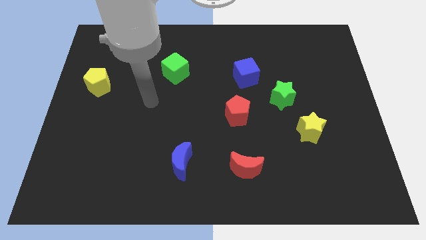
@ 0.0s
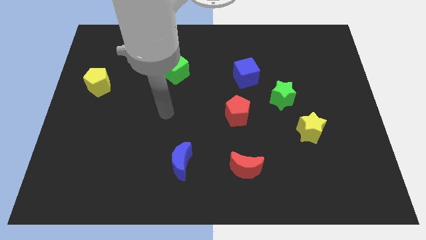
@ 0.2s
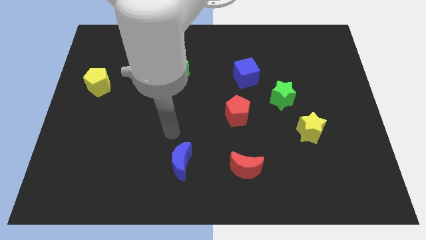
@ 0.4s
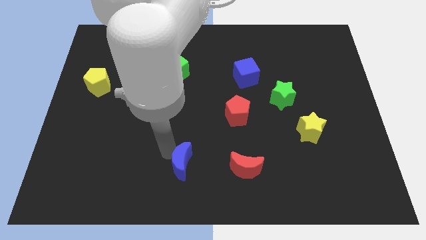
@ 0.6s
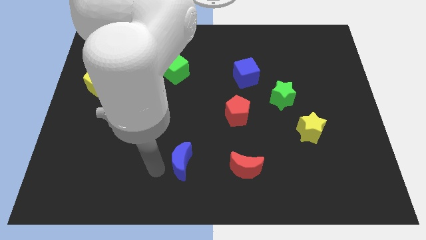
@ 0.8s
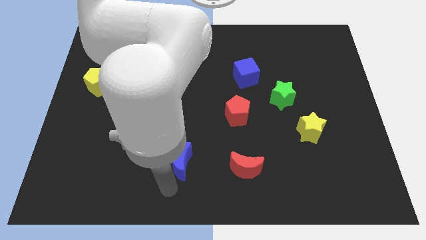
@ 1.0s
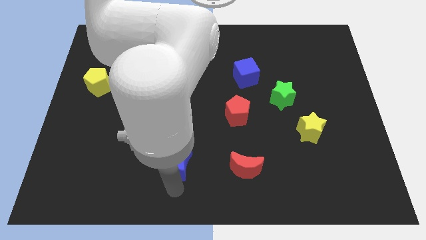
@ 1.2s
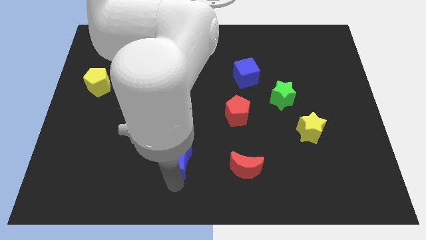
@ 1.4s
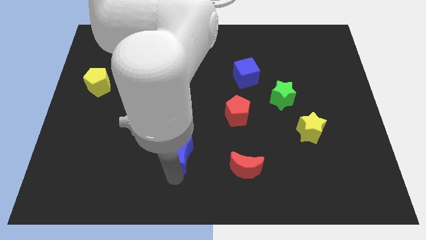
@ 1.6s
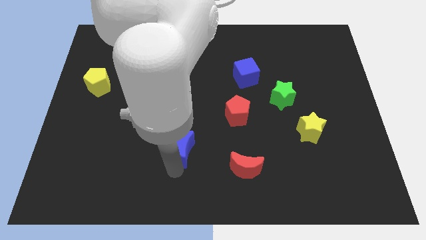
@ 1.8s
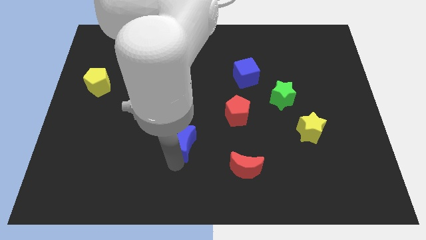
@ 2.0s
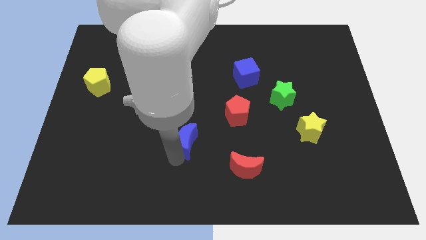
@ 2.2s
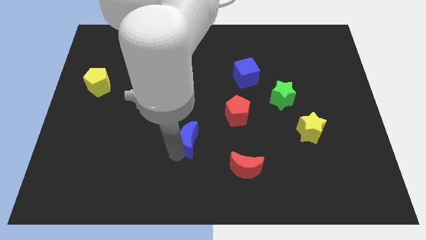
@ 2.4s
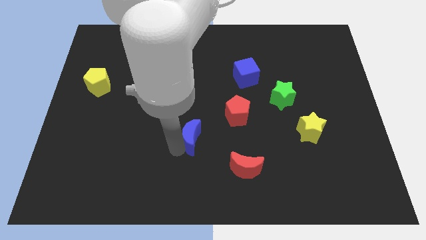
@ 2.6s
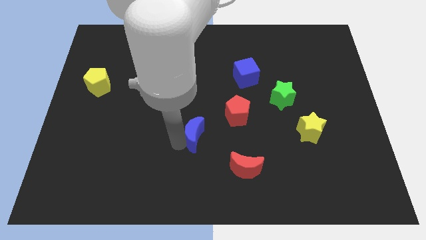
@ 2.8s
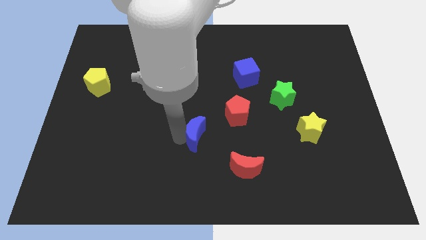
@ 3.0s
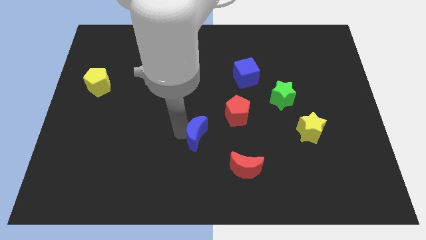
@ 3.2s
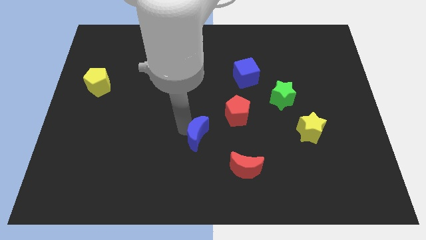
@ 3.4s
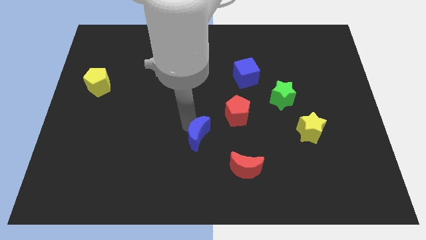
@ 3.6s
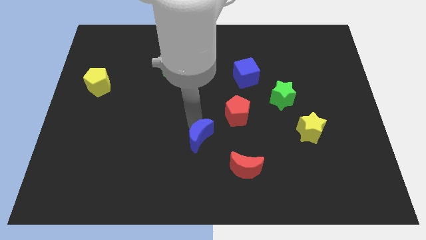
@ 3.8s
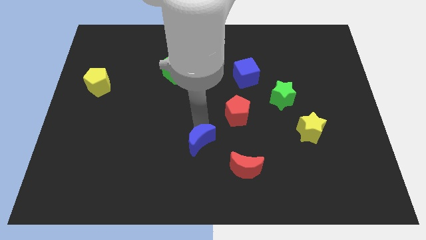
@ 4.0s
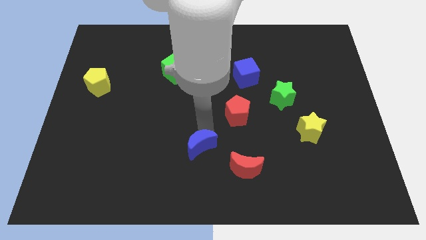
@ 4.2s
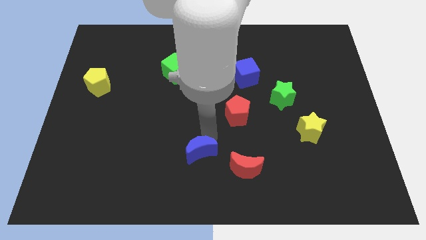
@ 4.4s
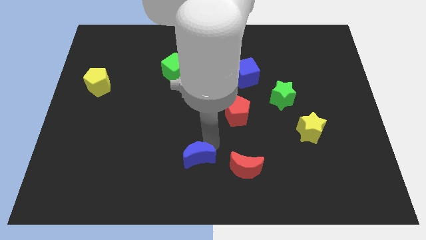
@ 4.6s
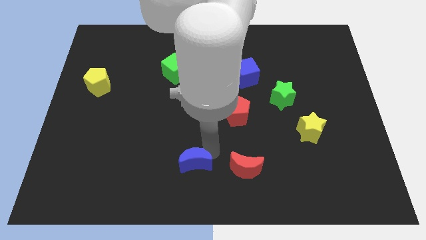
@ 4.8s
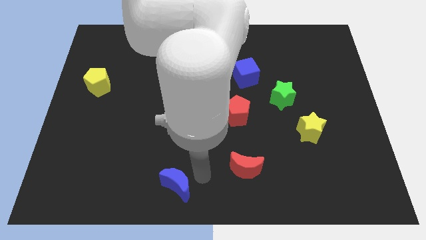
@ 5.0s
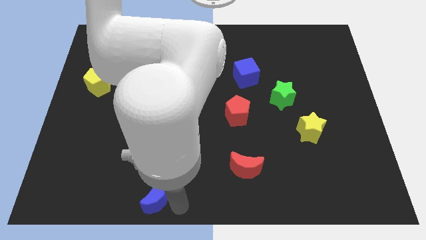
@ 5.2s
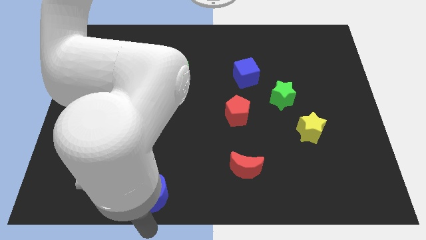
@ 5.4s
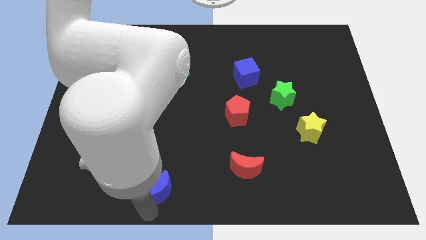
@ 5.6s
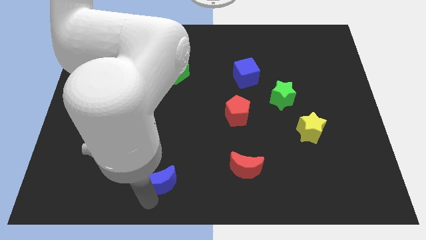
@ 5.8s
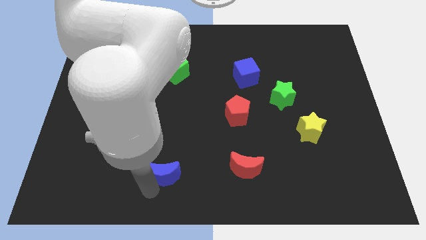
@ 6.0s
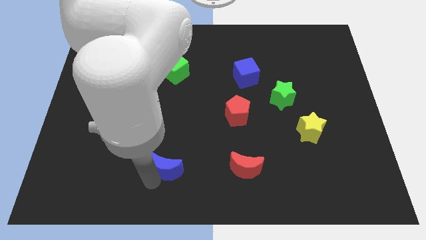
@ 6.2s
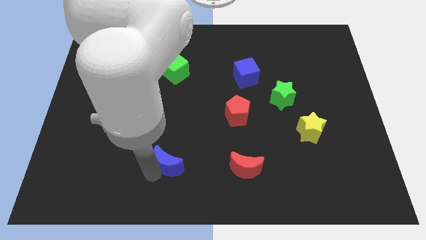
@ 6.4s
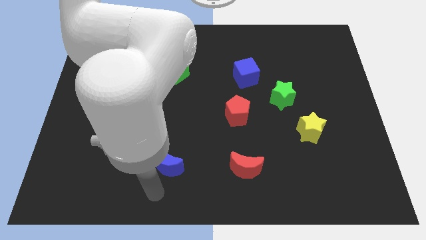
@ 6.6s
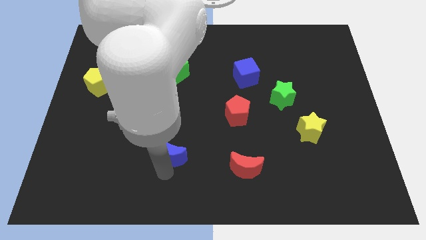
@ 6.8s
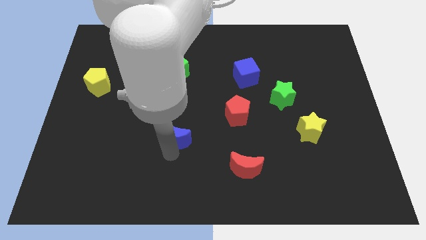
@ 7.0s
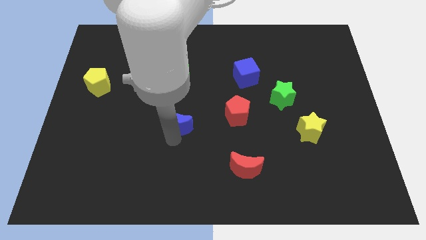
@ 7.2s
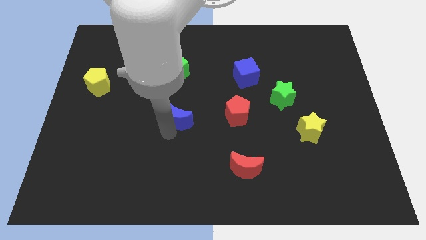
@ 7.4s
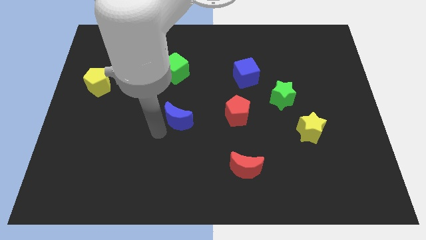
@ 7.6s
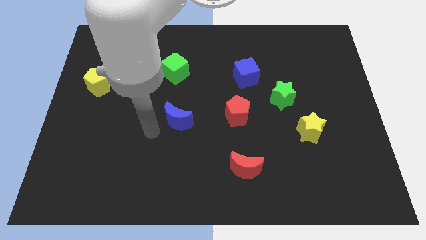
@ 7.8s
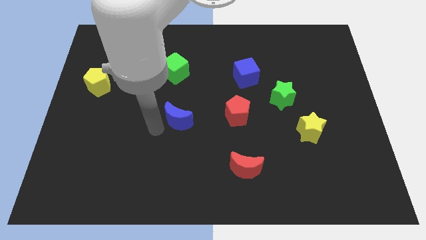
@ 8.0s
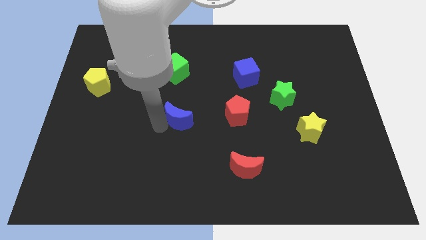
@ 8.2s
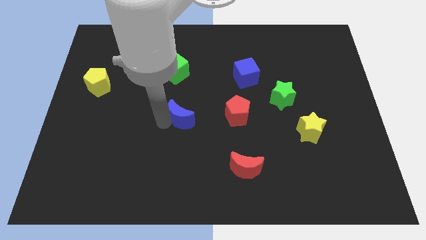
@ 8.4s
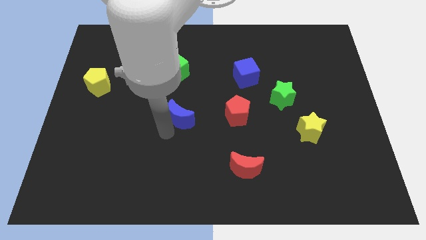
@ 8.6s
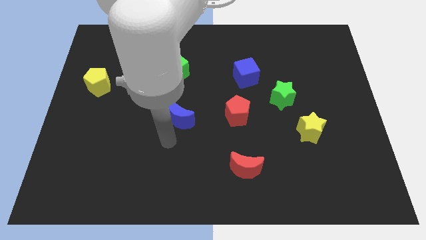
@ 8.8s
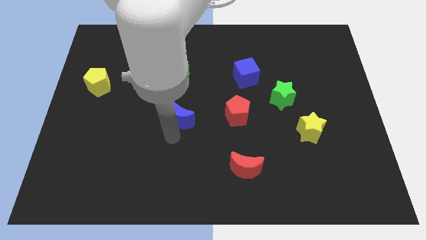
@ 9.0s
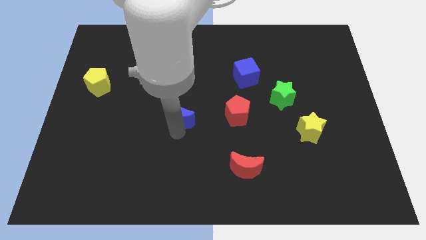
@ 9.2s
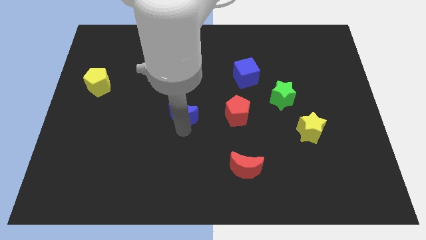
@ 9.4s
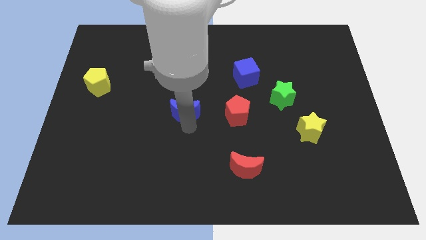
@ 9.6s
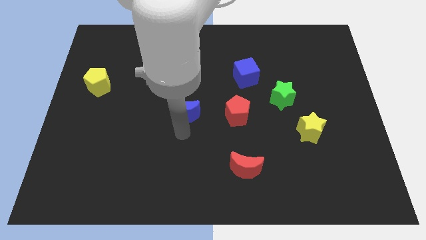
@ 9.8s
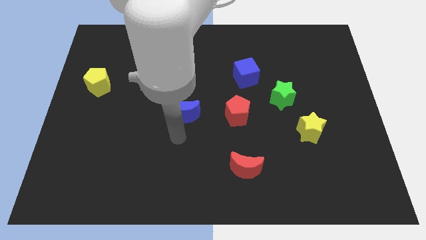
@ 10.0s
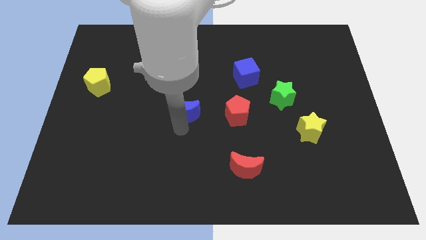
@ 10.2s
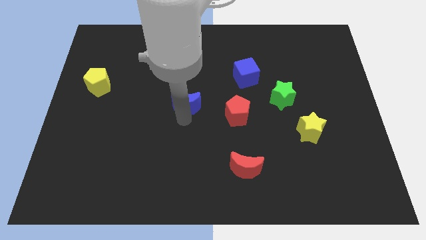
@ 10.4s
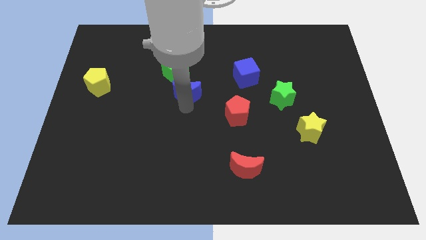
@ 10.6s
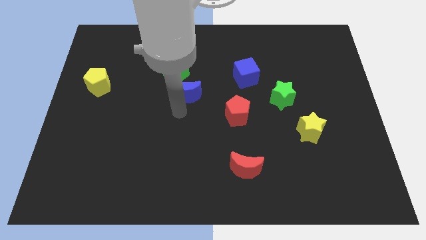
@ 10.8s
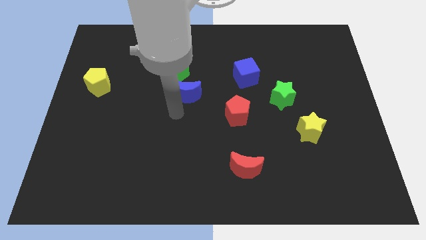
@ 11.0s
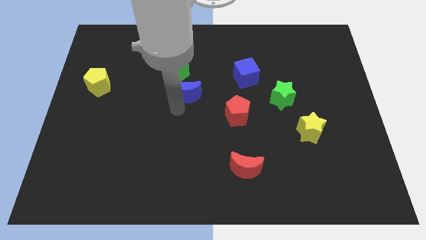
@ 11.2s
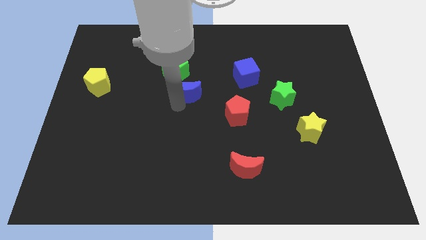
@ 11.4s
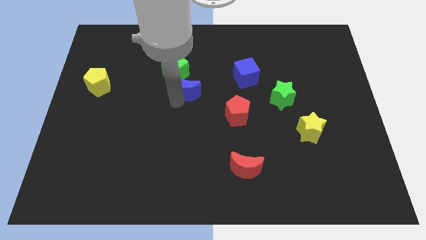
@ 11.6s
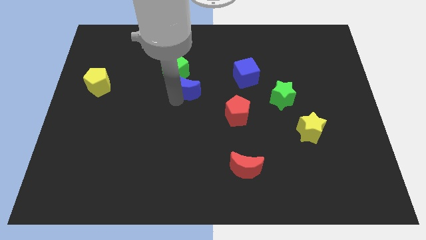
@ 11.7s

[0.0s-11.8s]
slide the blue moon upwards

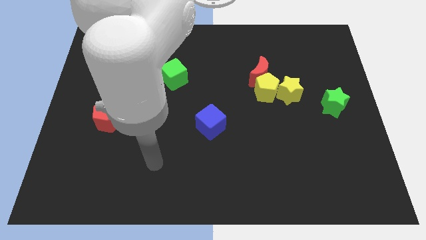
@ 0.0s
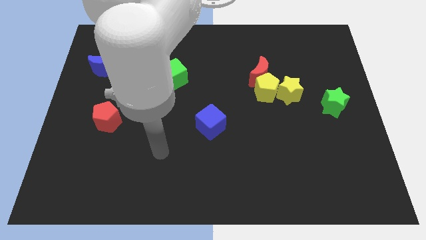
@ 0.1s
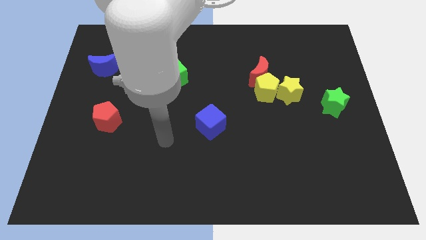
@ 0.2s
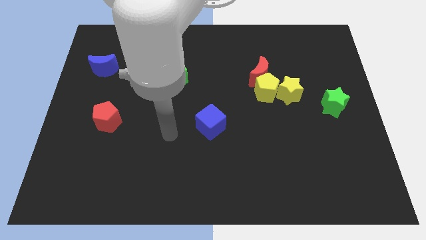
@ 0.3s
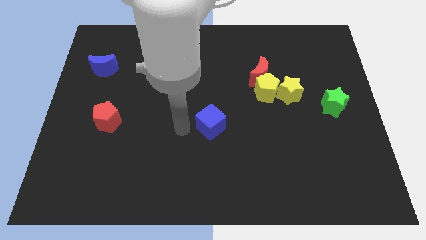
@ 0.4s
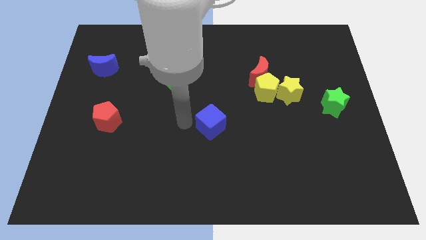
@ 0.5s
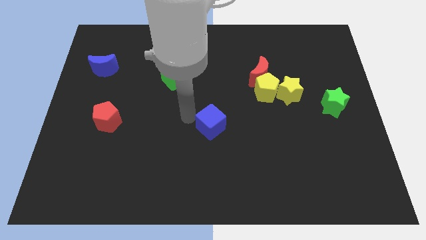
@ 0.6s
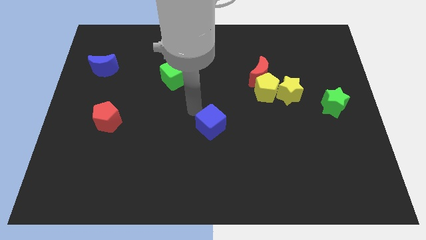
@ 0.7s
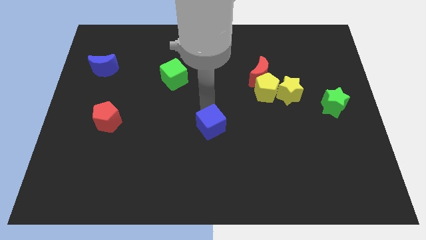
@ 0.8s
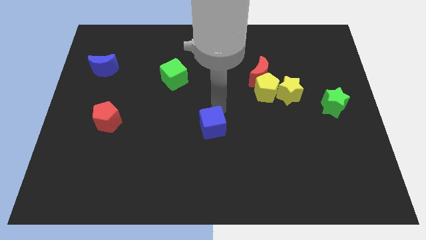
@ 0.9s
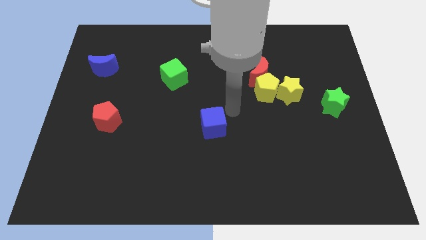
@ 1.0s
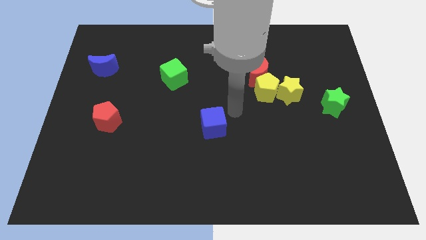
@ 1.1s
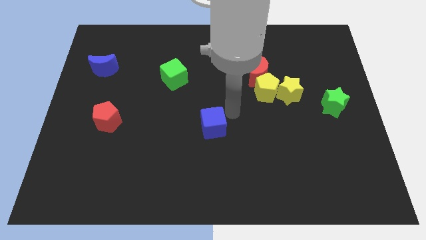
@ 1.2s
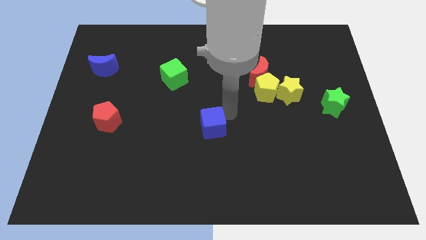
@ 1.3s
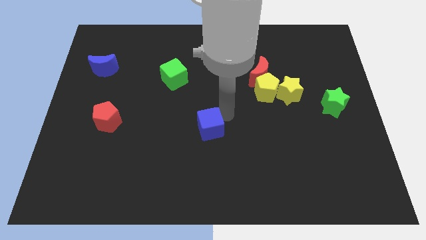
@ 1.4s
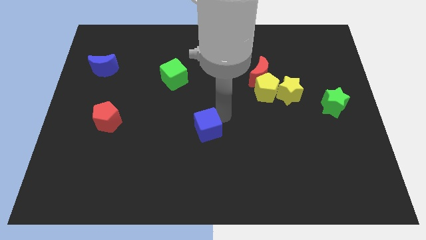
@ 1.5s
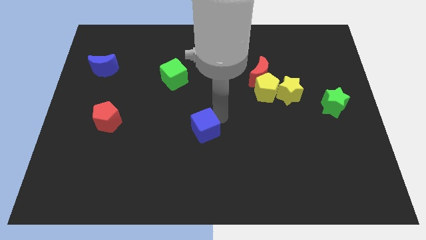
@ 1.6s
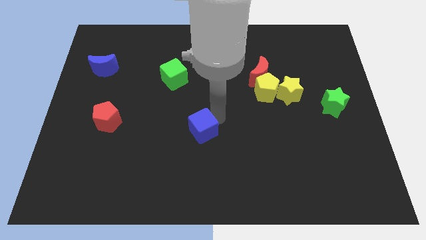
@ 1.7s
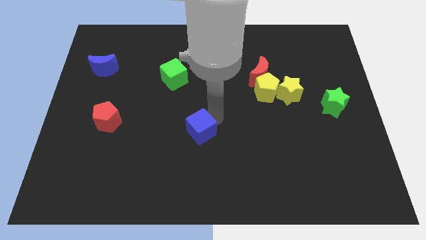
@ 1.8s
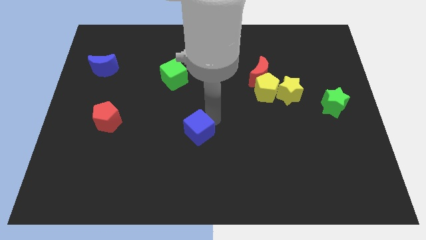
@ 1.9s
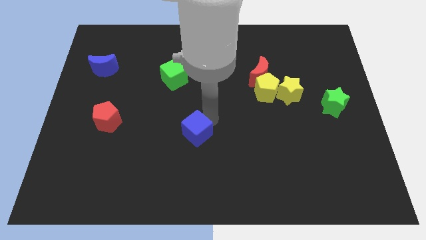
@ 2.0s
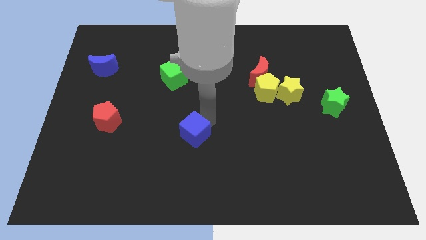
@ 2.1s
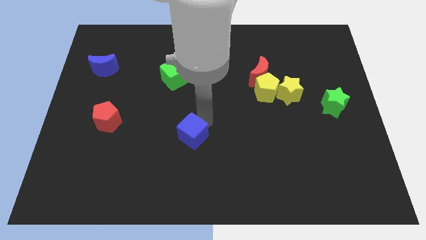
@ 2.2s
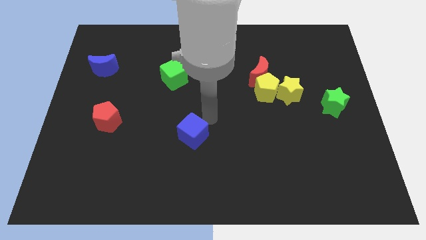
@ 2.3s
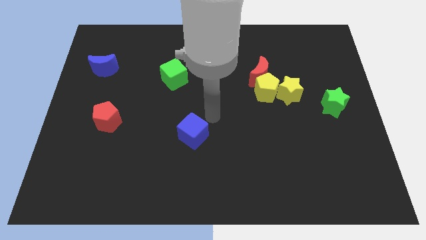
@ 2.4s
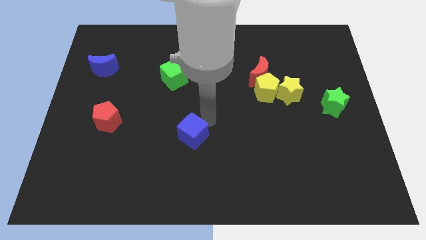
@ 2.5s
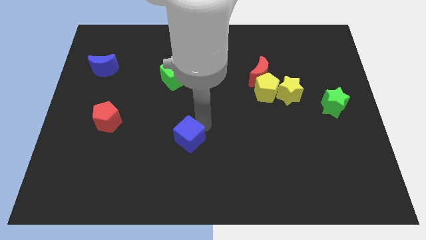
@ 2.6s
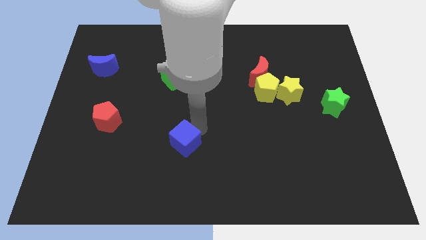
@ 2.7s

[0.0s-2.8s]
push the blue cube a little bit downwards and left diagonally
